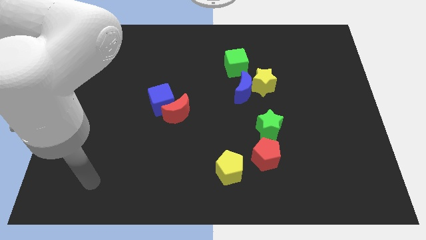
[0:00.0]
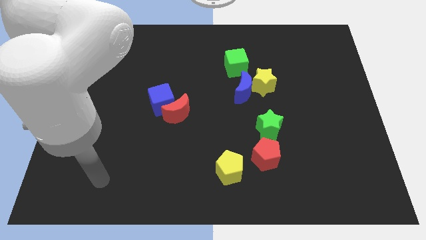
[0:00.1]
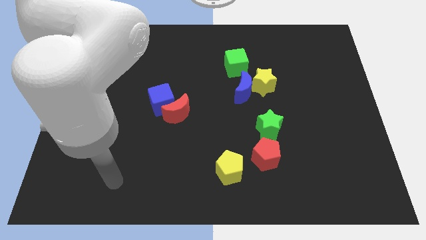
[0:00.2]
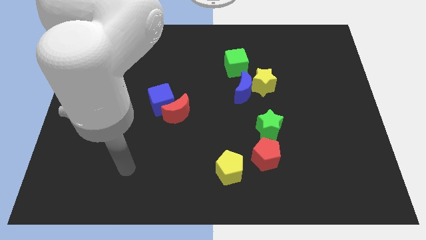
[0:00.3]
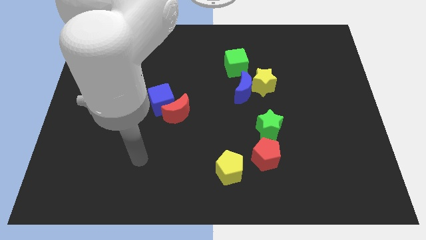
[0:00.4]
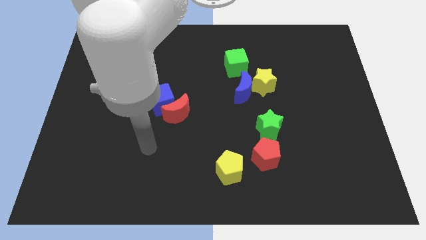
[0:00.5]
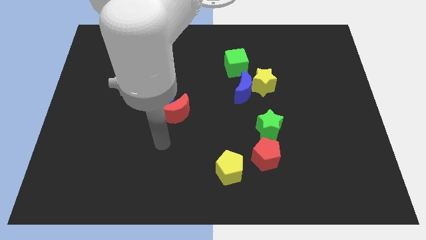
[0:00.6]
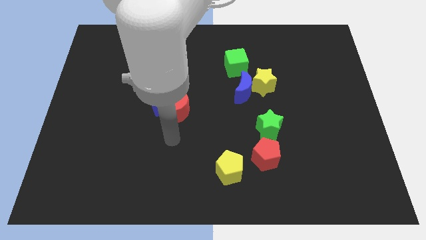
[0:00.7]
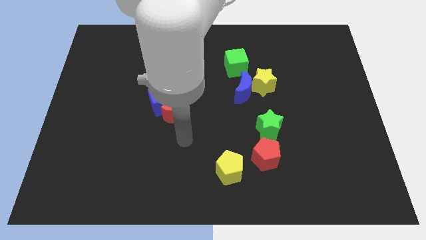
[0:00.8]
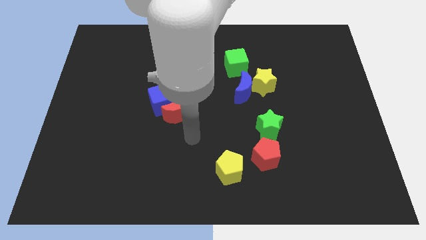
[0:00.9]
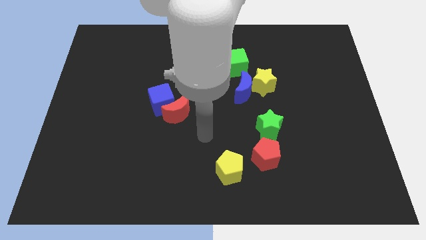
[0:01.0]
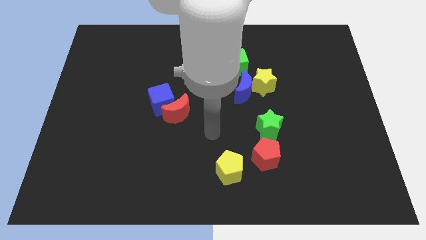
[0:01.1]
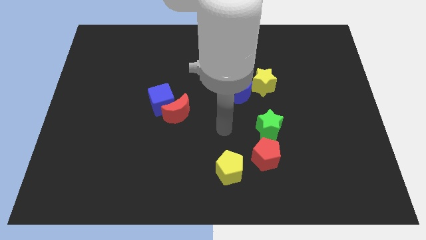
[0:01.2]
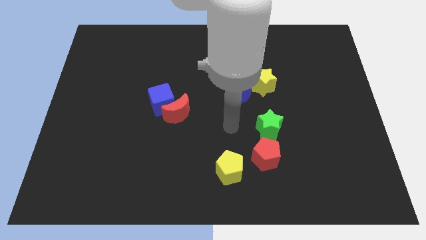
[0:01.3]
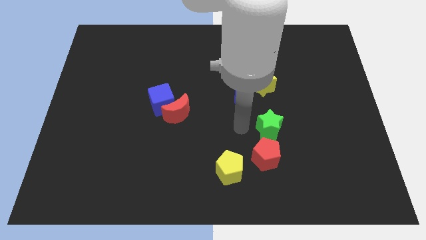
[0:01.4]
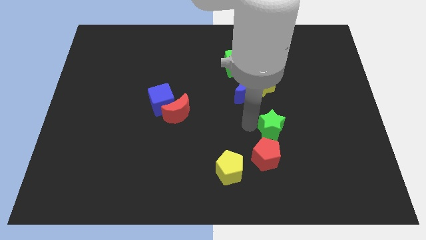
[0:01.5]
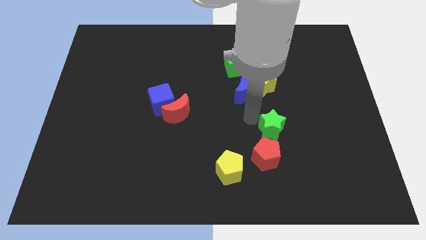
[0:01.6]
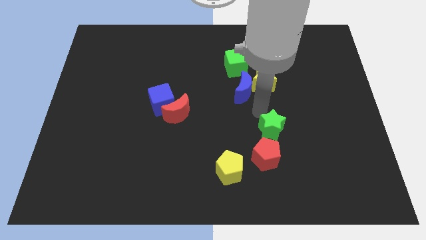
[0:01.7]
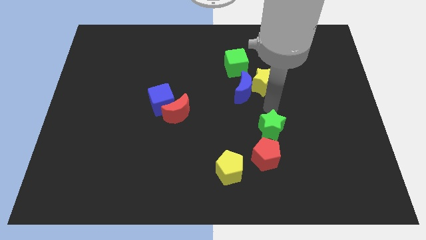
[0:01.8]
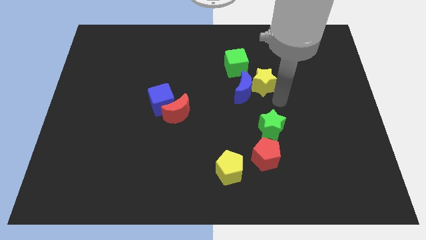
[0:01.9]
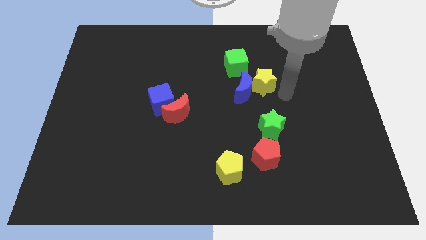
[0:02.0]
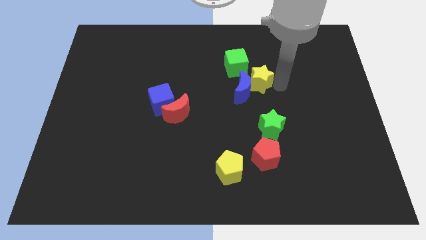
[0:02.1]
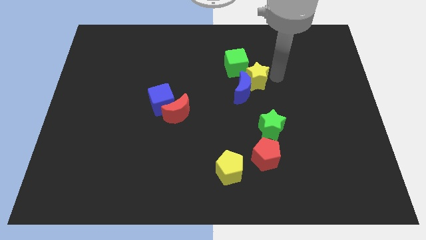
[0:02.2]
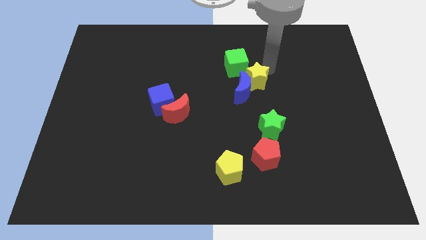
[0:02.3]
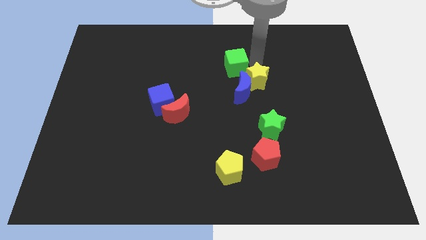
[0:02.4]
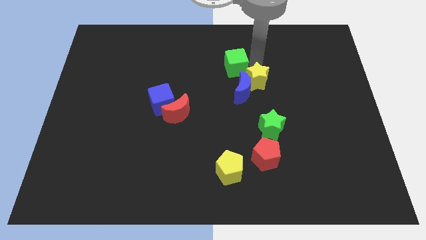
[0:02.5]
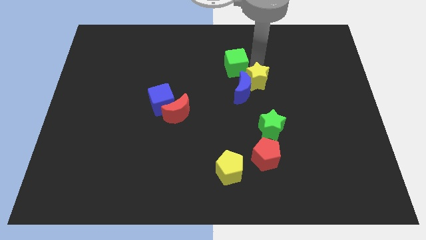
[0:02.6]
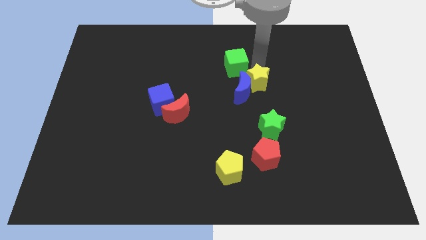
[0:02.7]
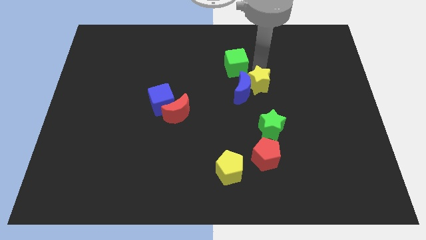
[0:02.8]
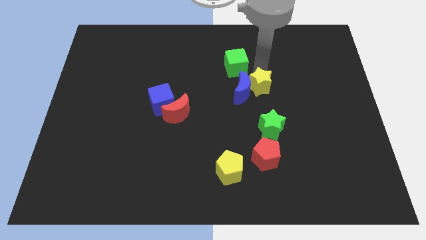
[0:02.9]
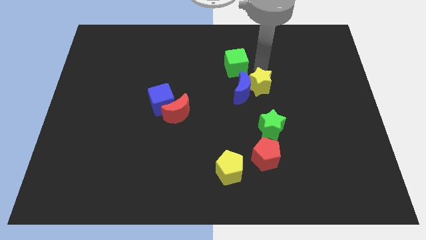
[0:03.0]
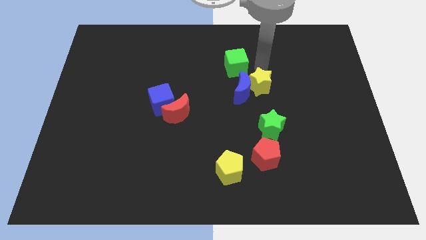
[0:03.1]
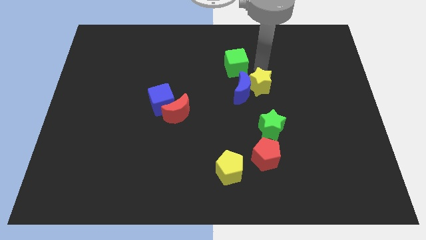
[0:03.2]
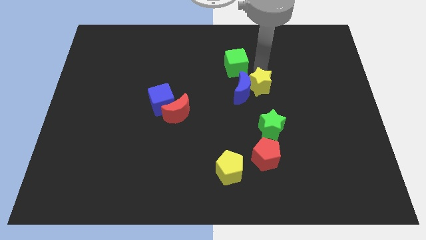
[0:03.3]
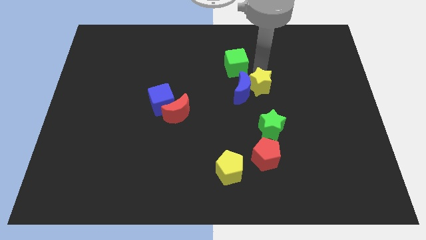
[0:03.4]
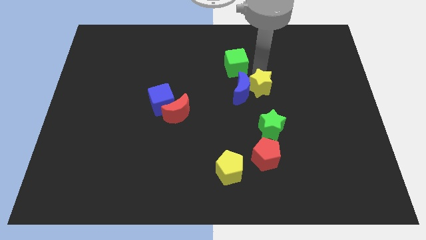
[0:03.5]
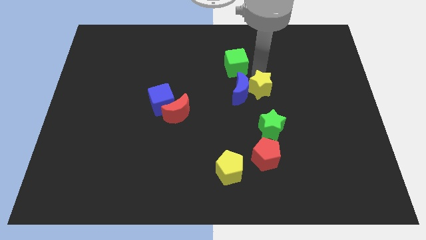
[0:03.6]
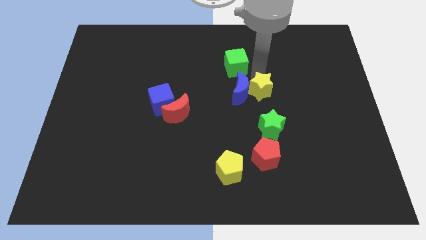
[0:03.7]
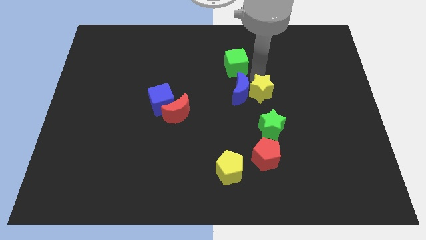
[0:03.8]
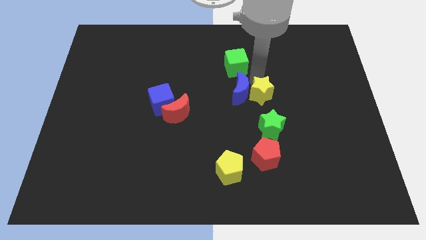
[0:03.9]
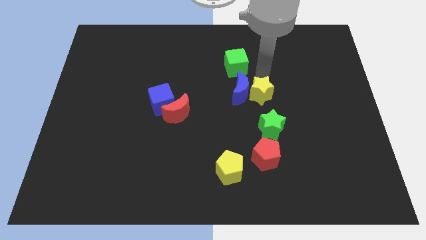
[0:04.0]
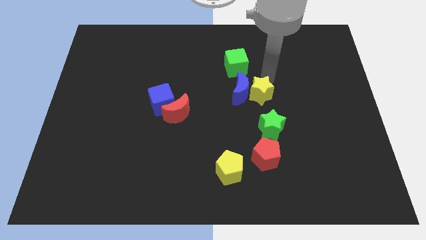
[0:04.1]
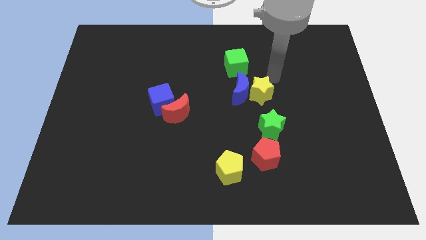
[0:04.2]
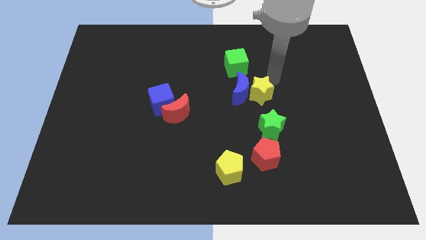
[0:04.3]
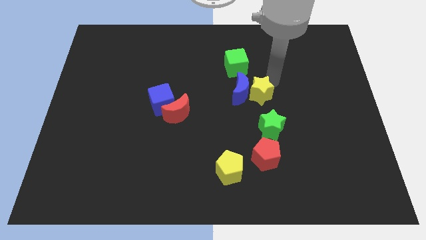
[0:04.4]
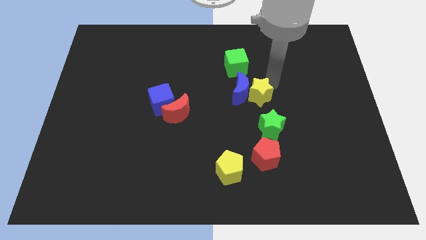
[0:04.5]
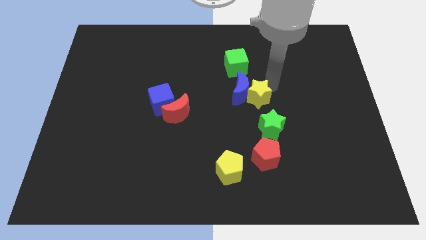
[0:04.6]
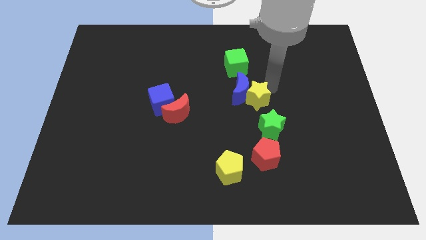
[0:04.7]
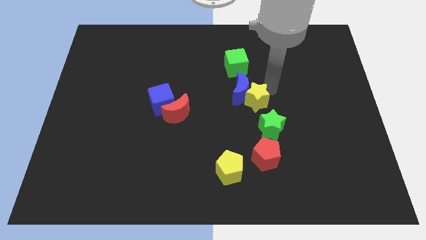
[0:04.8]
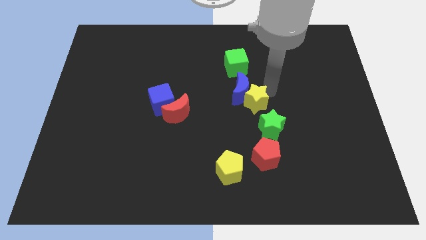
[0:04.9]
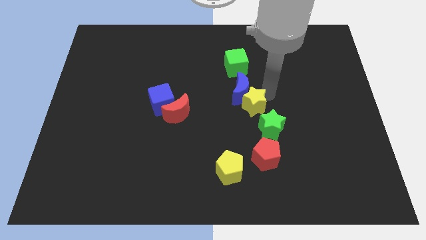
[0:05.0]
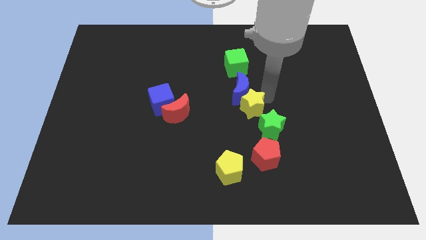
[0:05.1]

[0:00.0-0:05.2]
slightly push the yellow star downwards and then left

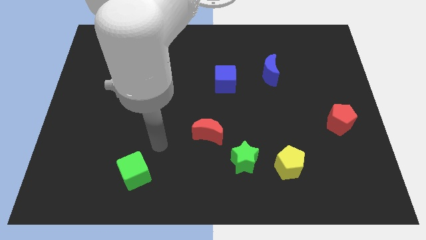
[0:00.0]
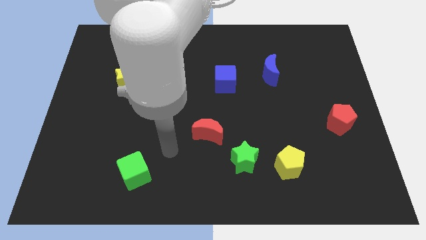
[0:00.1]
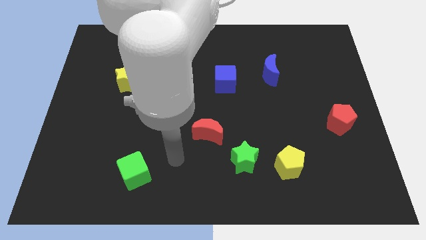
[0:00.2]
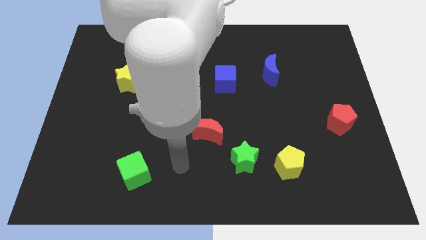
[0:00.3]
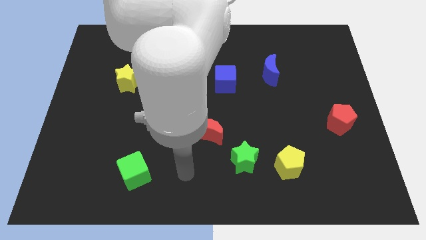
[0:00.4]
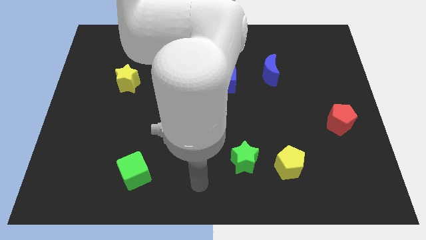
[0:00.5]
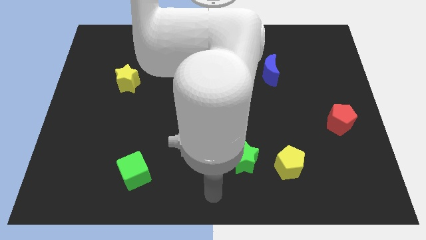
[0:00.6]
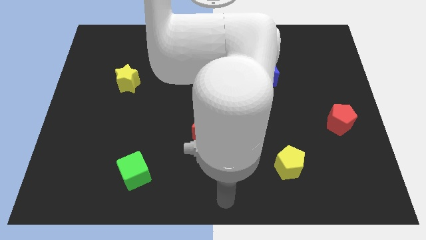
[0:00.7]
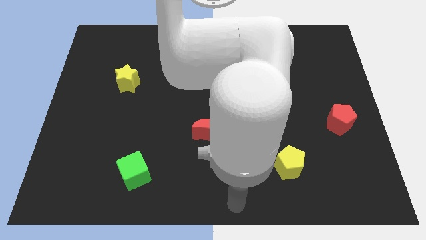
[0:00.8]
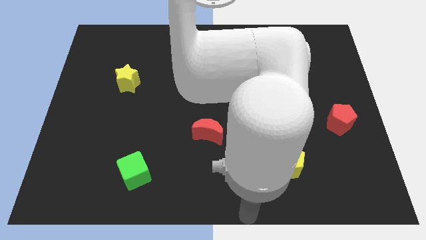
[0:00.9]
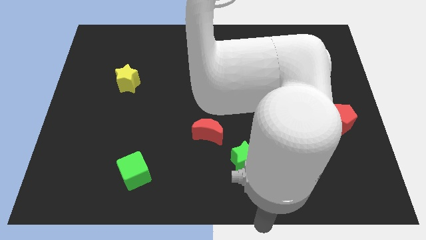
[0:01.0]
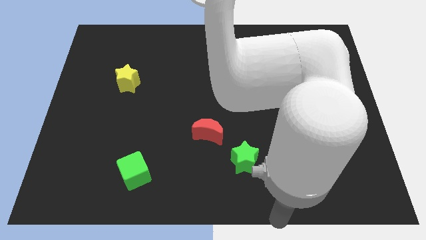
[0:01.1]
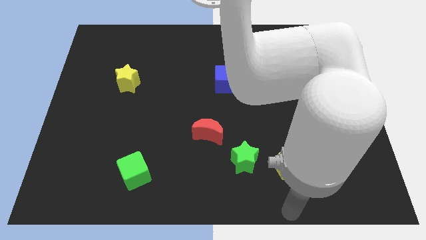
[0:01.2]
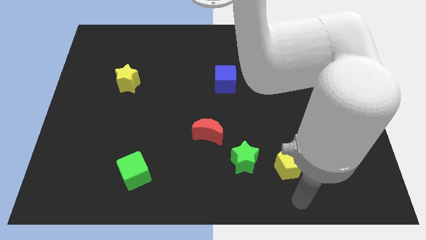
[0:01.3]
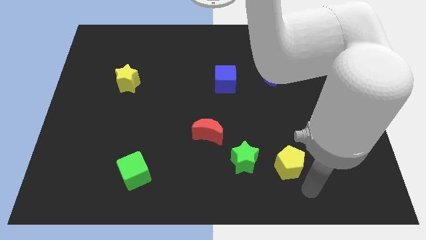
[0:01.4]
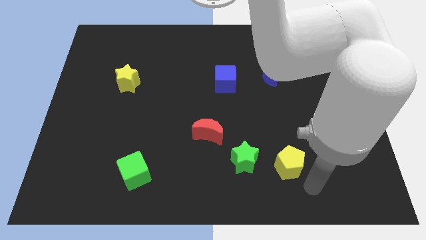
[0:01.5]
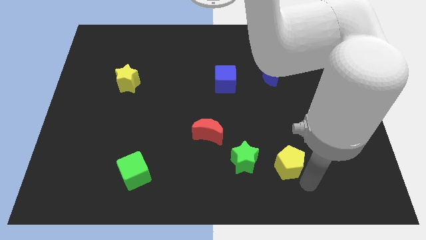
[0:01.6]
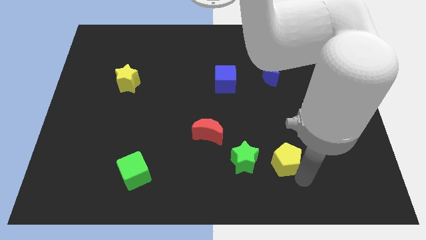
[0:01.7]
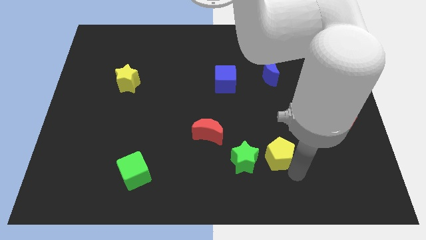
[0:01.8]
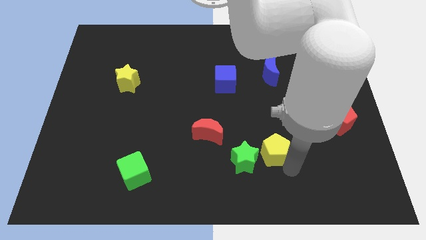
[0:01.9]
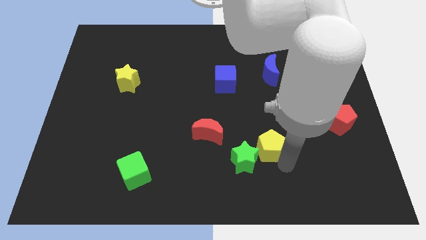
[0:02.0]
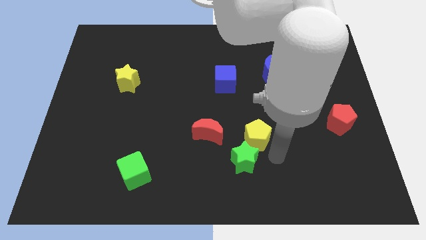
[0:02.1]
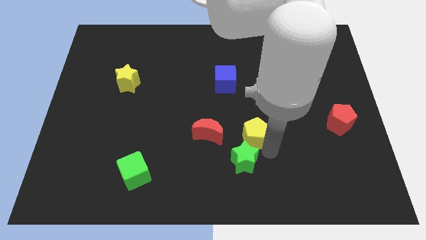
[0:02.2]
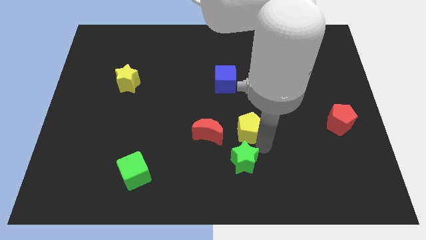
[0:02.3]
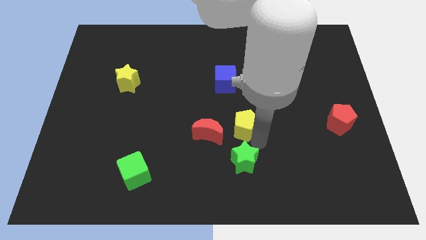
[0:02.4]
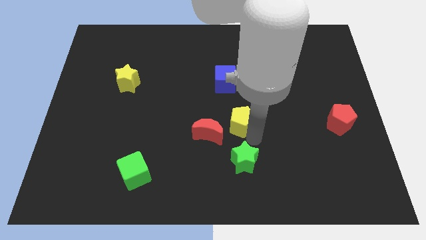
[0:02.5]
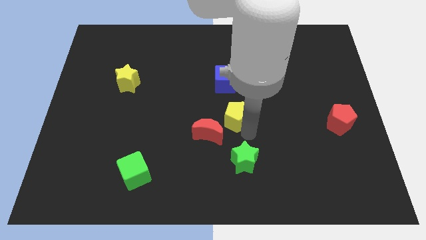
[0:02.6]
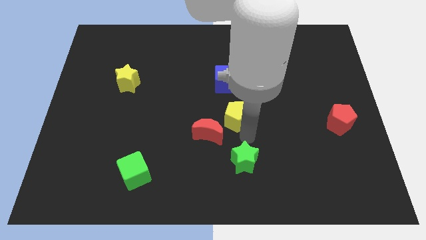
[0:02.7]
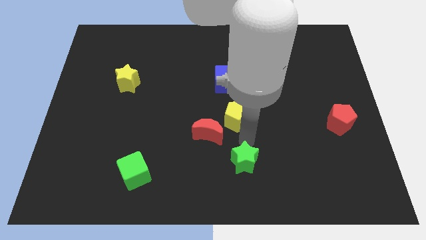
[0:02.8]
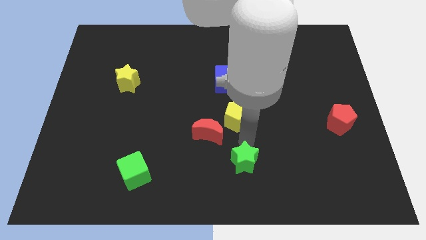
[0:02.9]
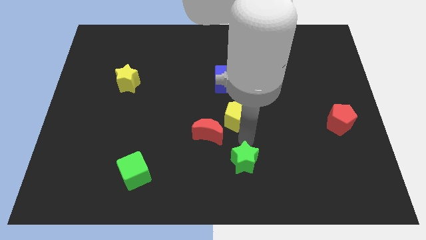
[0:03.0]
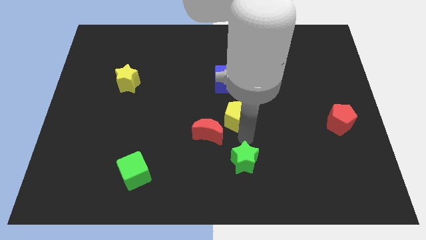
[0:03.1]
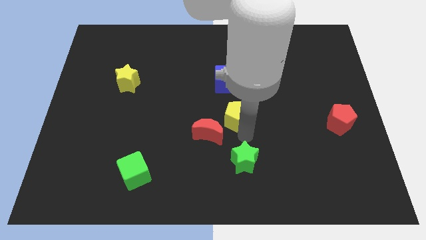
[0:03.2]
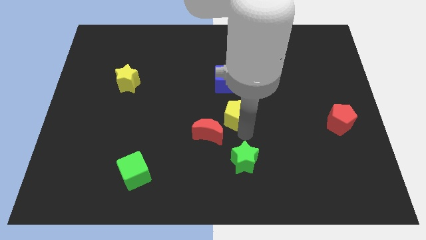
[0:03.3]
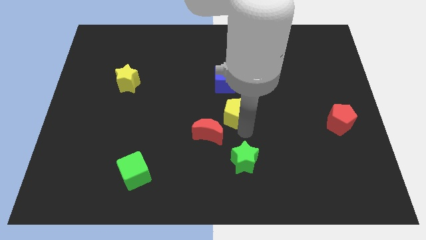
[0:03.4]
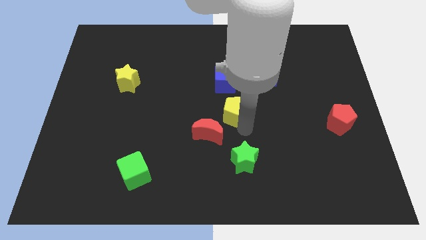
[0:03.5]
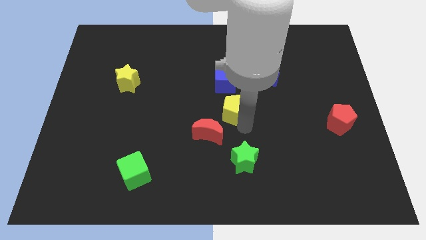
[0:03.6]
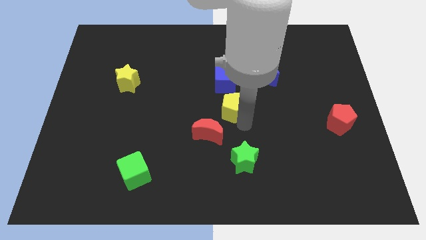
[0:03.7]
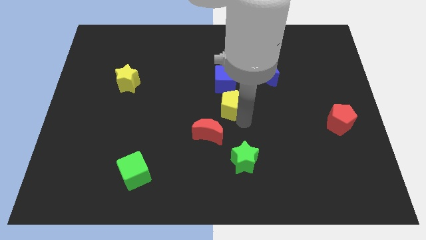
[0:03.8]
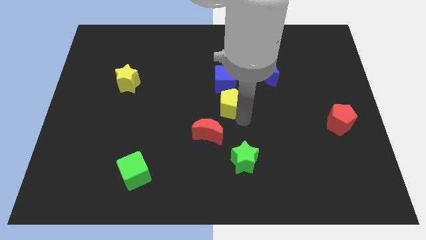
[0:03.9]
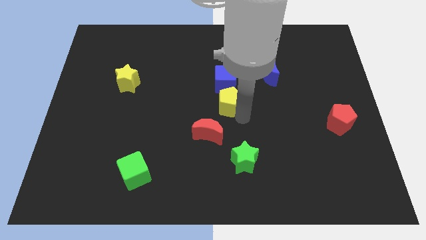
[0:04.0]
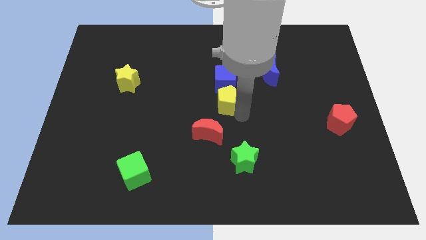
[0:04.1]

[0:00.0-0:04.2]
slide the yellow pentagon up and then to the left
